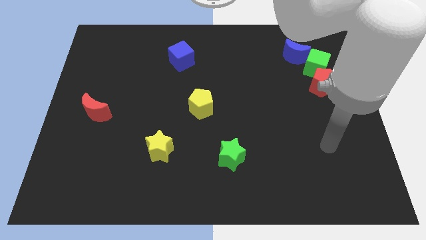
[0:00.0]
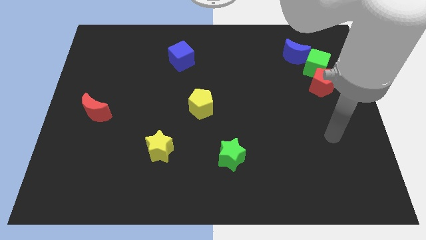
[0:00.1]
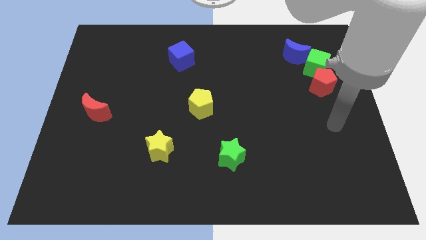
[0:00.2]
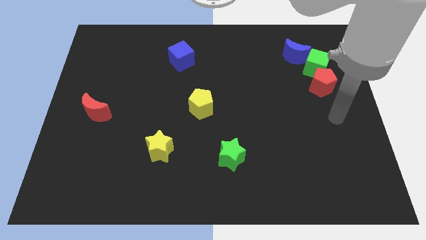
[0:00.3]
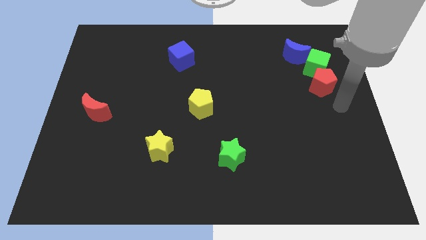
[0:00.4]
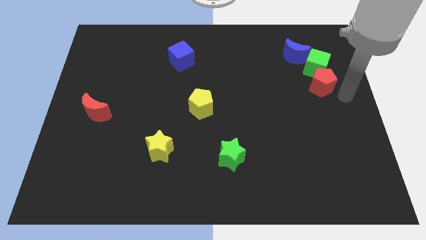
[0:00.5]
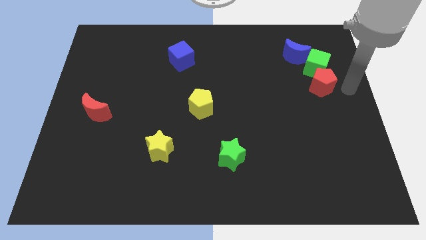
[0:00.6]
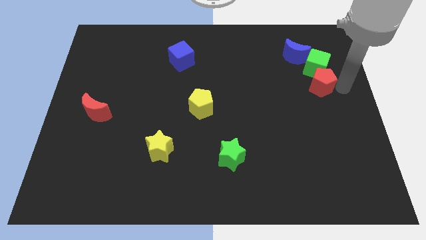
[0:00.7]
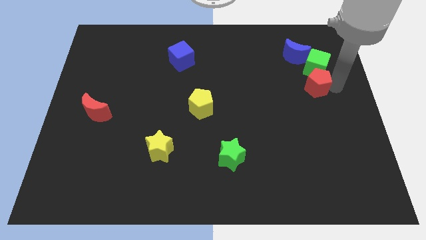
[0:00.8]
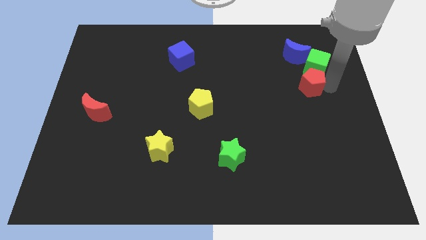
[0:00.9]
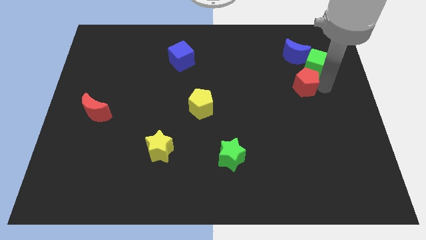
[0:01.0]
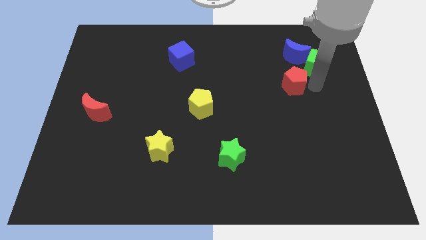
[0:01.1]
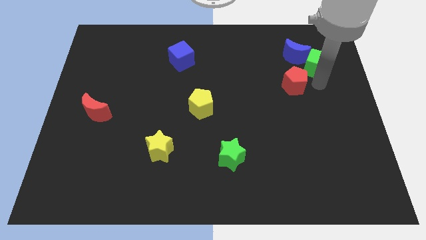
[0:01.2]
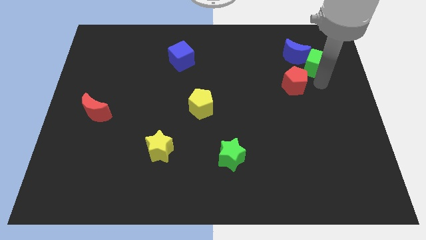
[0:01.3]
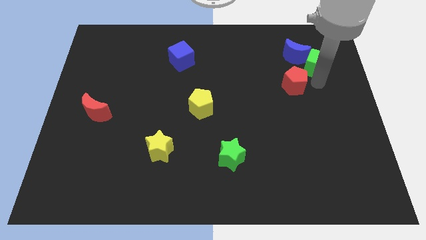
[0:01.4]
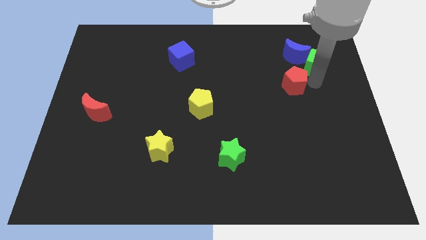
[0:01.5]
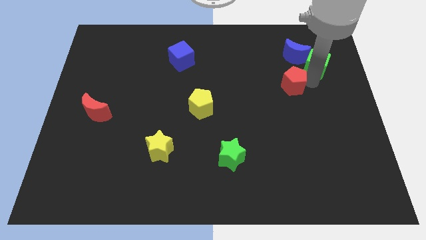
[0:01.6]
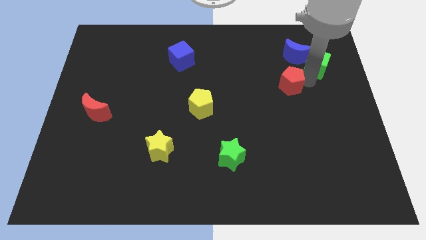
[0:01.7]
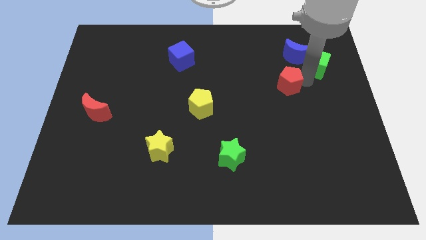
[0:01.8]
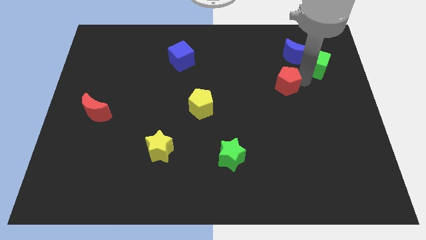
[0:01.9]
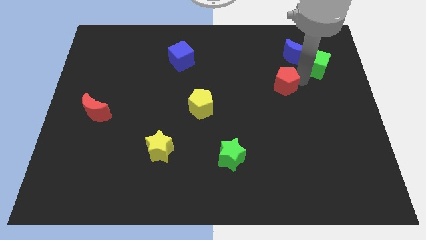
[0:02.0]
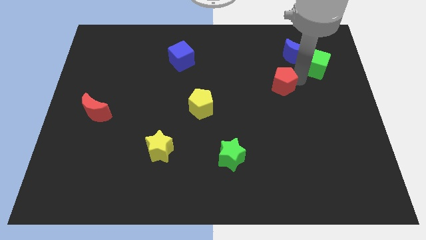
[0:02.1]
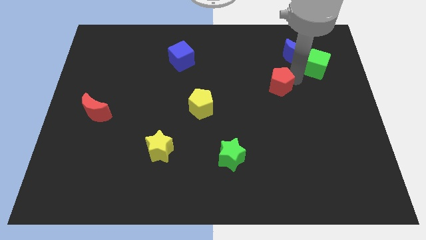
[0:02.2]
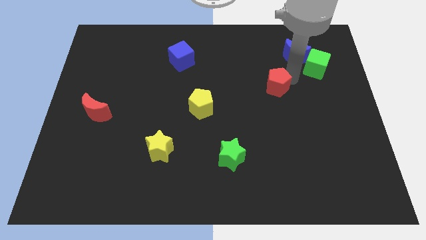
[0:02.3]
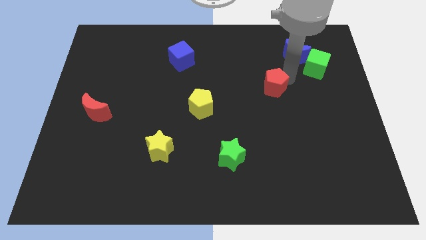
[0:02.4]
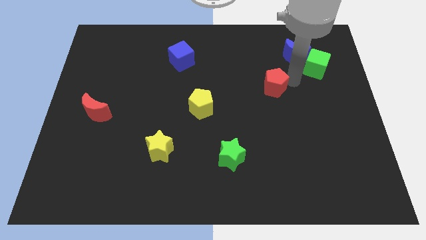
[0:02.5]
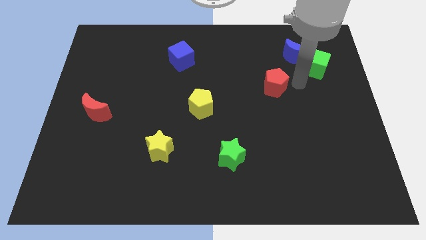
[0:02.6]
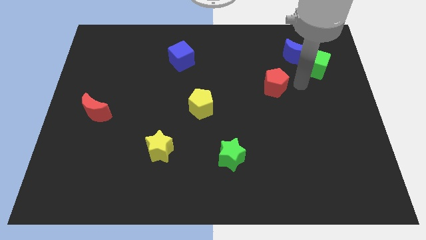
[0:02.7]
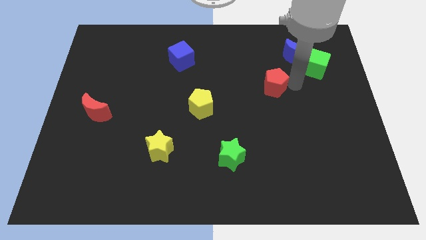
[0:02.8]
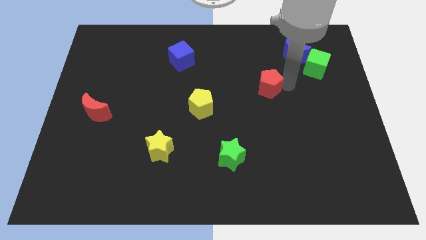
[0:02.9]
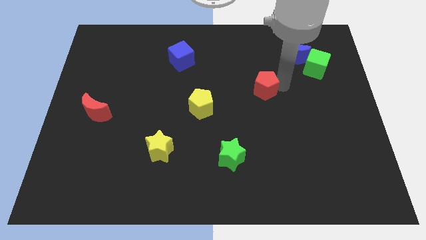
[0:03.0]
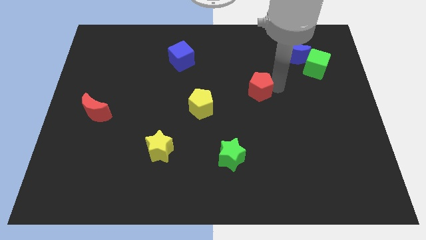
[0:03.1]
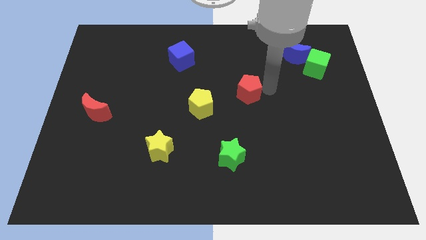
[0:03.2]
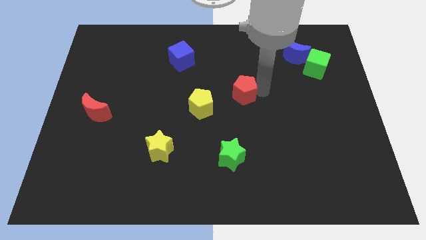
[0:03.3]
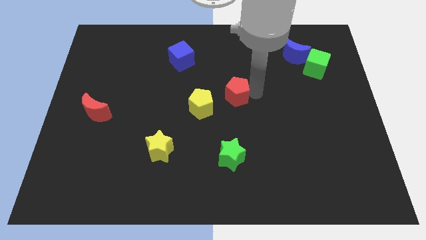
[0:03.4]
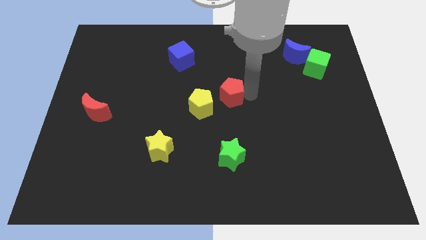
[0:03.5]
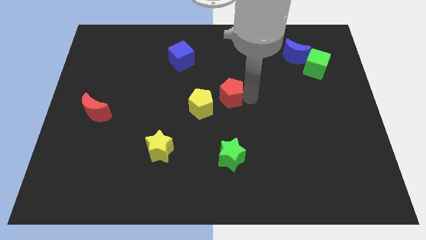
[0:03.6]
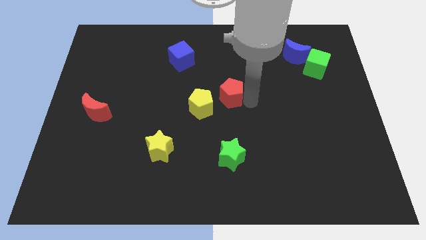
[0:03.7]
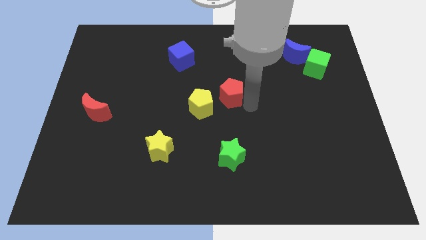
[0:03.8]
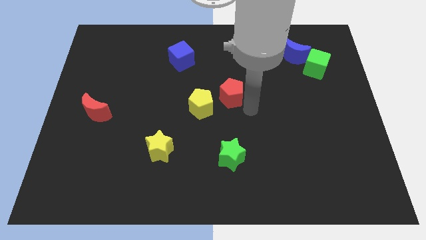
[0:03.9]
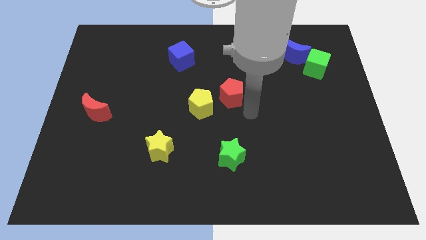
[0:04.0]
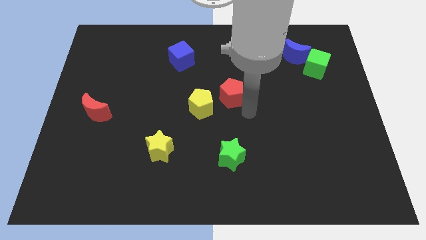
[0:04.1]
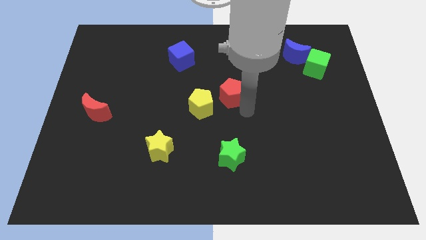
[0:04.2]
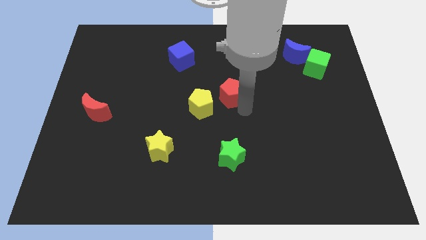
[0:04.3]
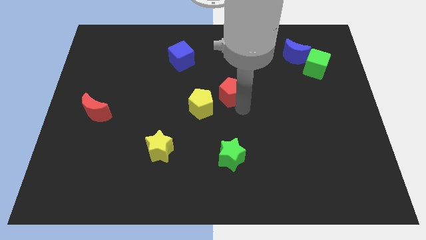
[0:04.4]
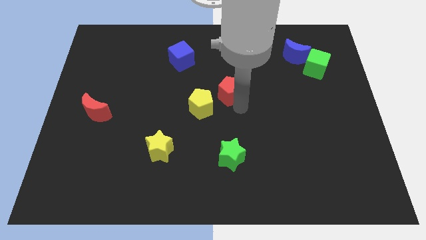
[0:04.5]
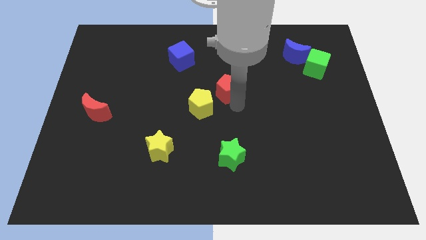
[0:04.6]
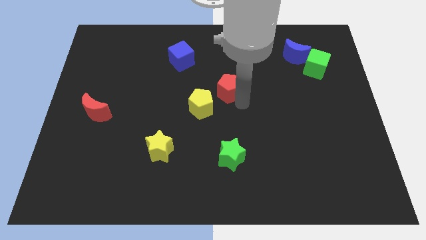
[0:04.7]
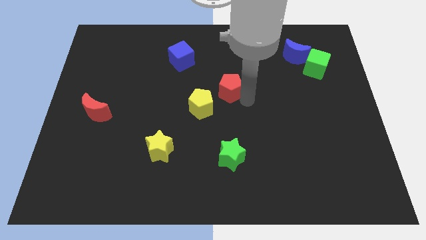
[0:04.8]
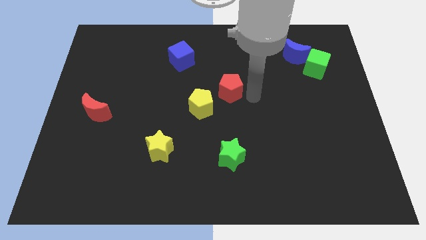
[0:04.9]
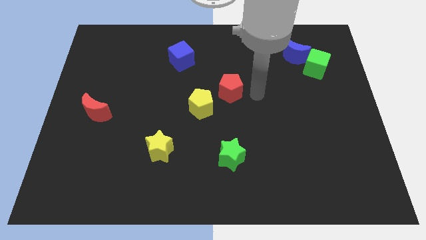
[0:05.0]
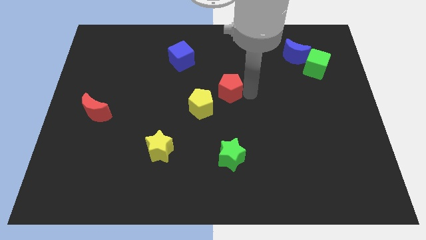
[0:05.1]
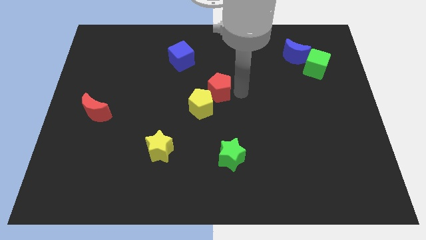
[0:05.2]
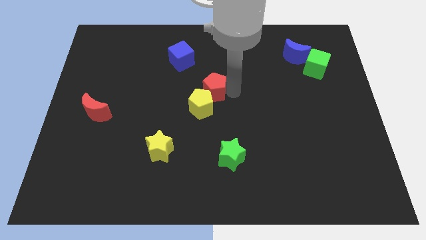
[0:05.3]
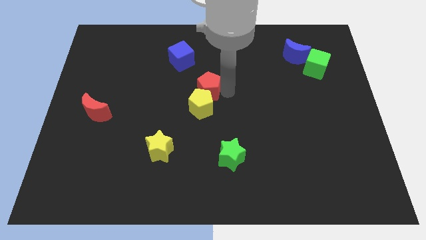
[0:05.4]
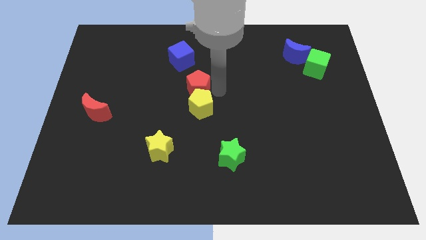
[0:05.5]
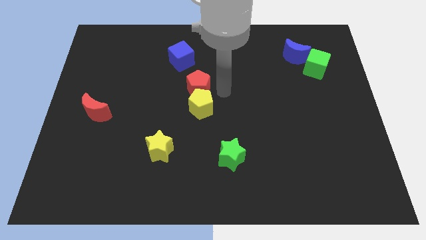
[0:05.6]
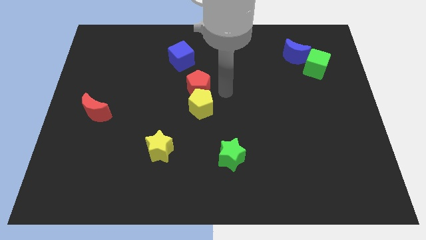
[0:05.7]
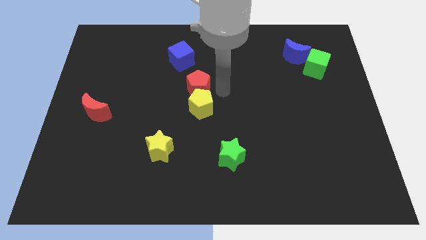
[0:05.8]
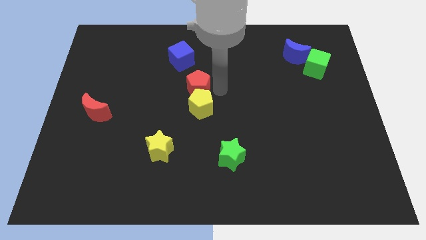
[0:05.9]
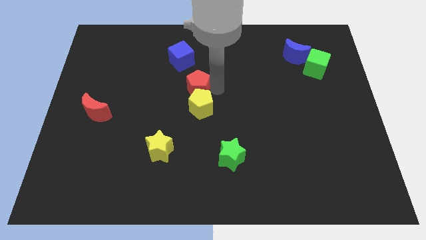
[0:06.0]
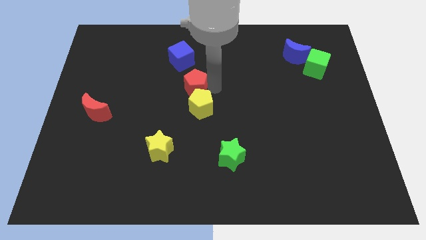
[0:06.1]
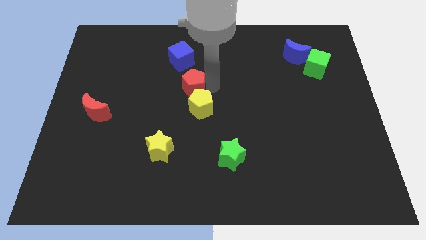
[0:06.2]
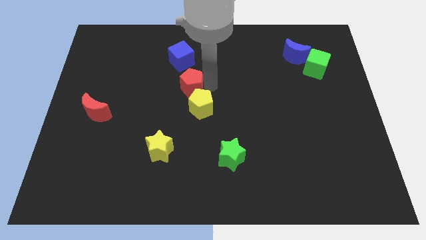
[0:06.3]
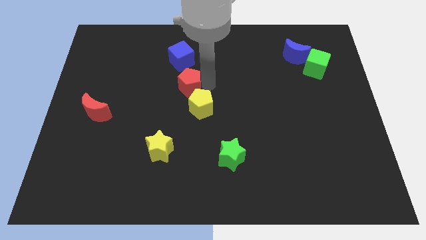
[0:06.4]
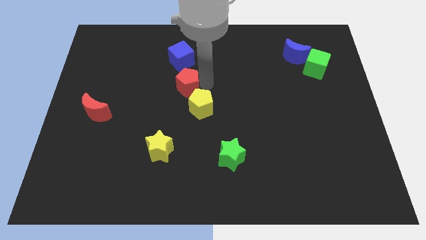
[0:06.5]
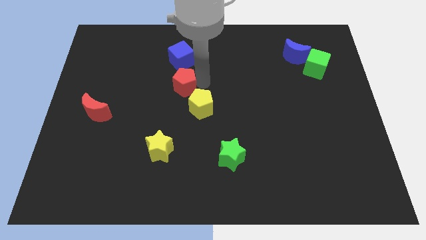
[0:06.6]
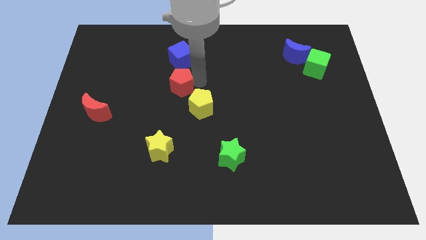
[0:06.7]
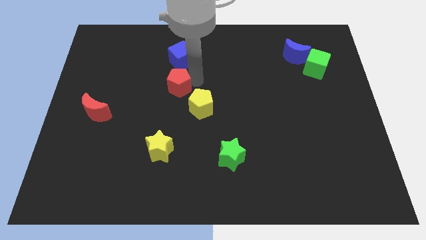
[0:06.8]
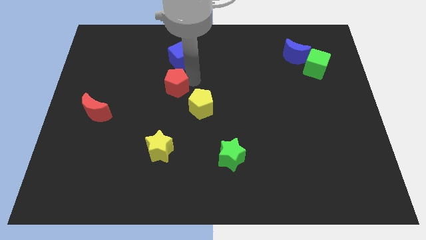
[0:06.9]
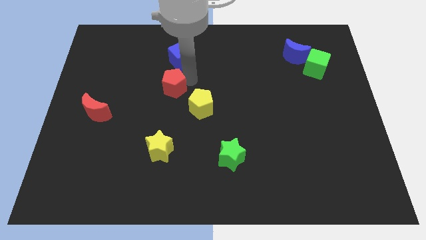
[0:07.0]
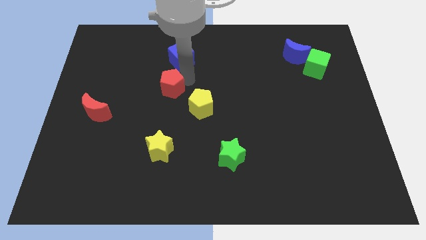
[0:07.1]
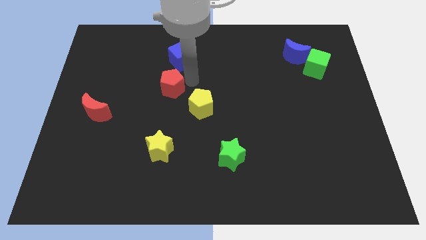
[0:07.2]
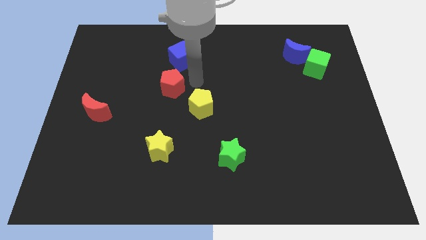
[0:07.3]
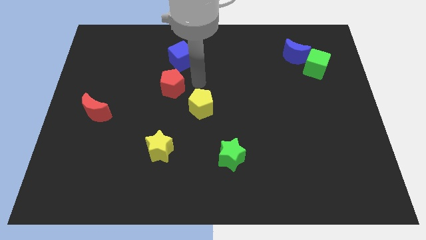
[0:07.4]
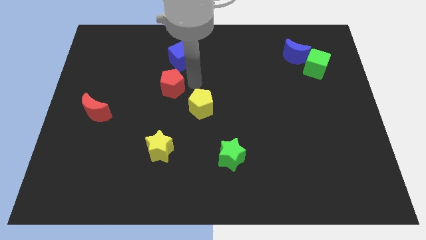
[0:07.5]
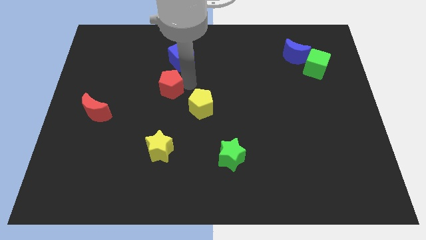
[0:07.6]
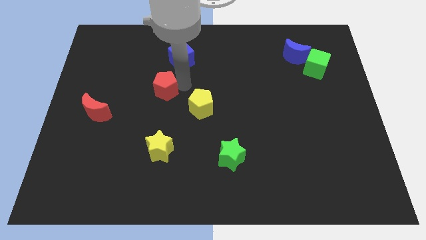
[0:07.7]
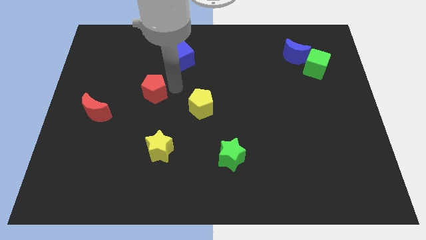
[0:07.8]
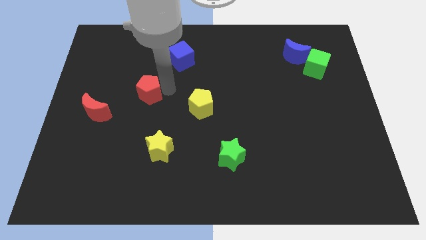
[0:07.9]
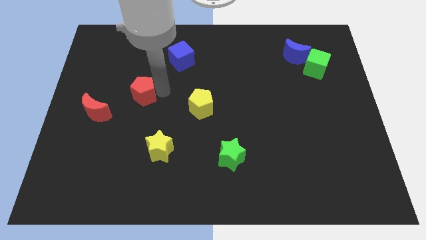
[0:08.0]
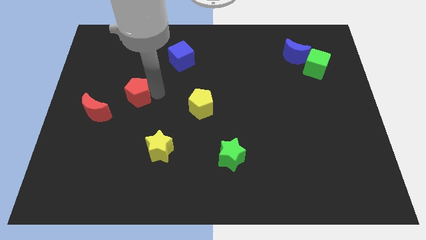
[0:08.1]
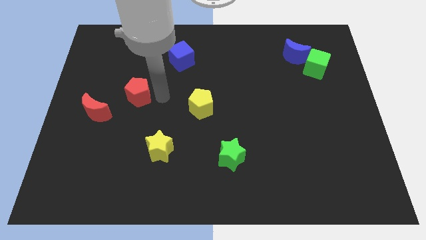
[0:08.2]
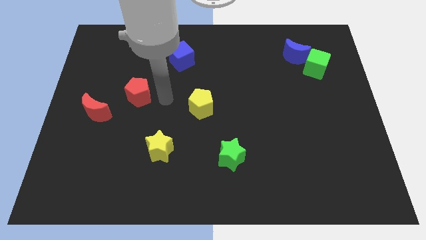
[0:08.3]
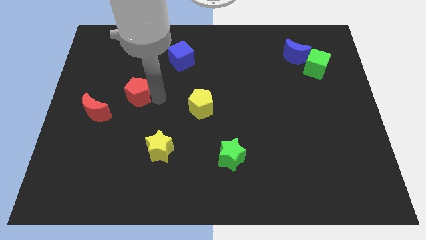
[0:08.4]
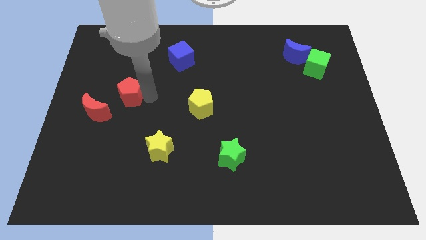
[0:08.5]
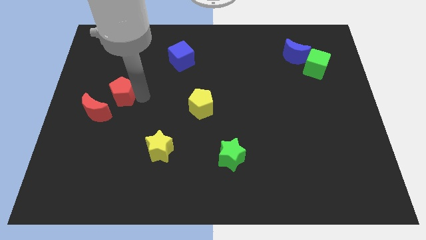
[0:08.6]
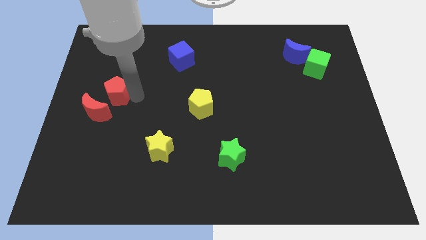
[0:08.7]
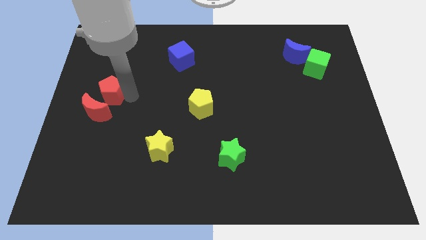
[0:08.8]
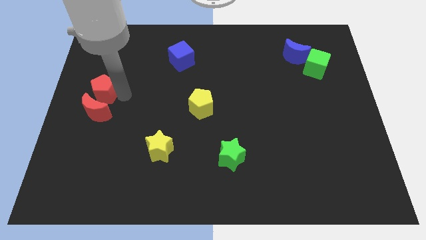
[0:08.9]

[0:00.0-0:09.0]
move the red pentagon to the left side
